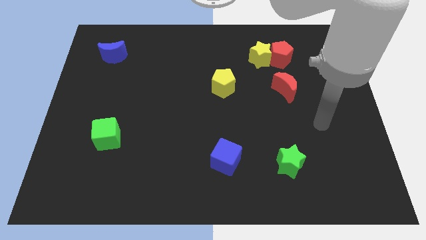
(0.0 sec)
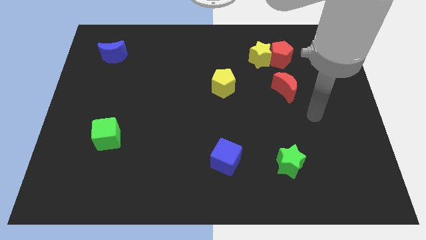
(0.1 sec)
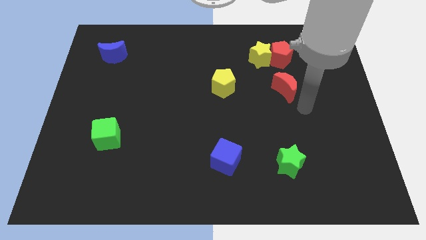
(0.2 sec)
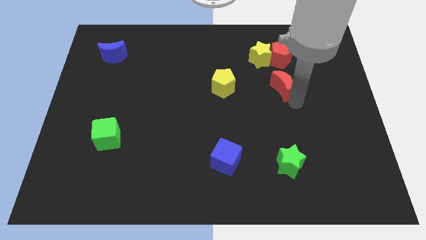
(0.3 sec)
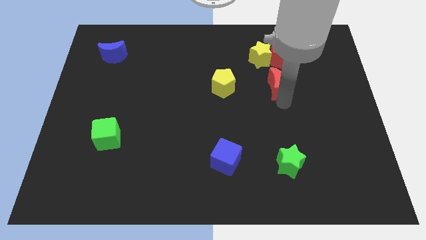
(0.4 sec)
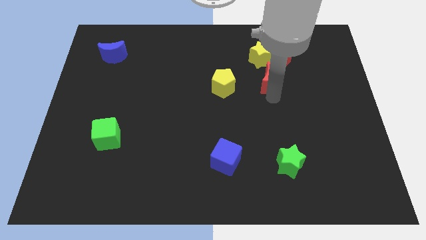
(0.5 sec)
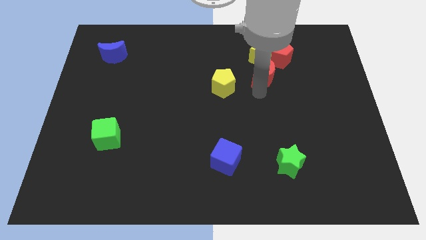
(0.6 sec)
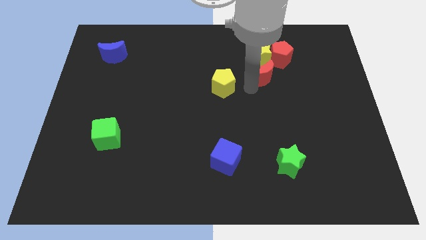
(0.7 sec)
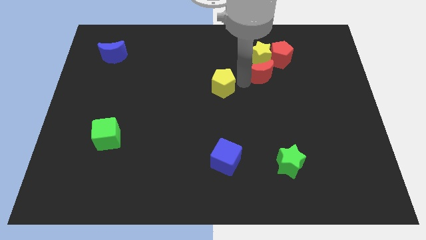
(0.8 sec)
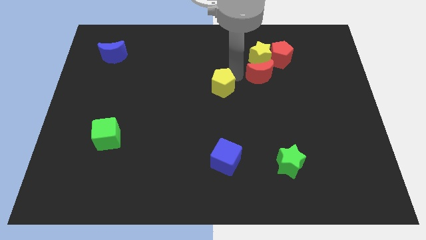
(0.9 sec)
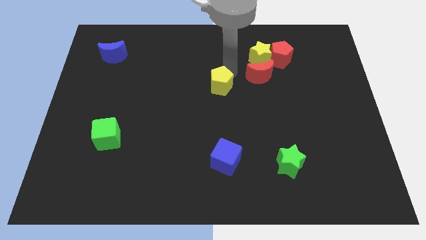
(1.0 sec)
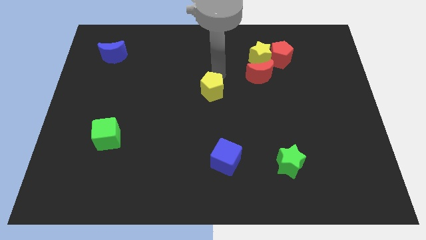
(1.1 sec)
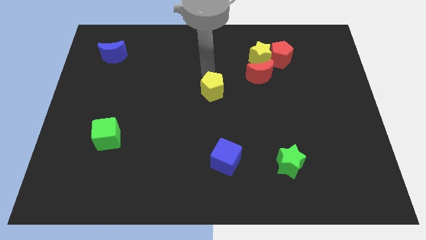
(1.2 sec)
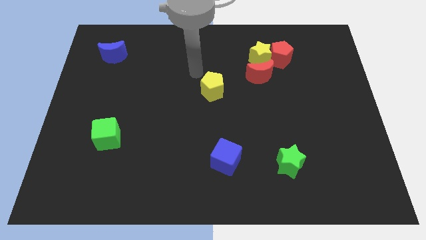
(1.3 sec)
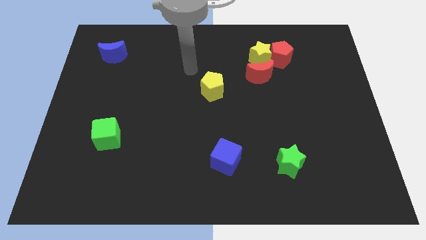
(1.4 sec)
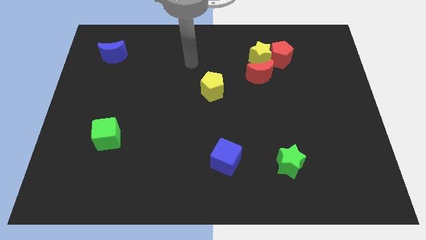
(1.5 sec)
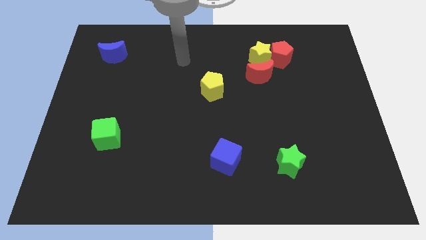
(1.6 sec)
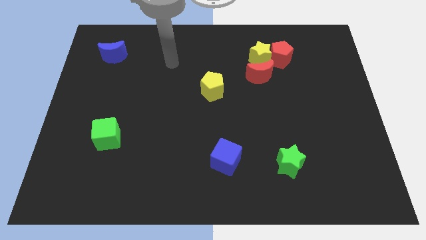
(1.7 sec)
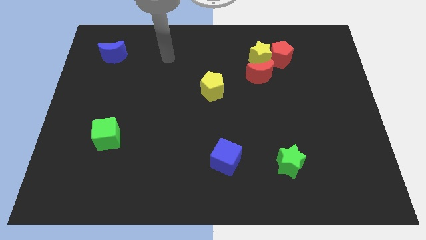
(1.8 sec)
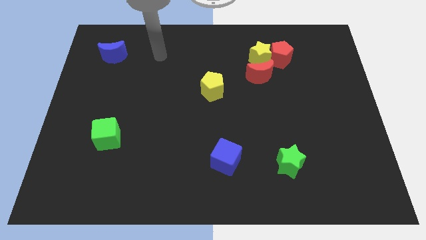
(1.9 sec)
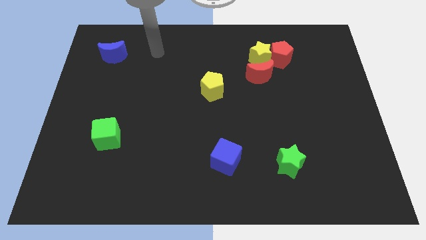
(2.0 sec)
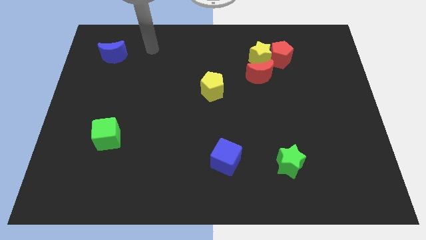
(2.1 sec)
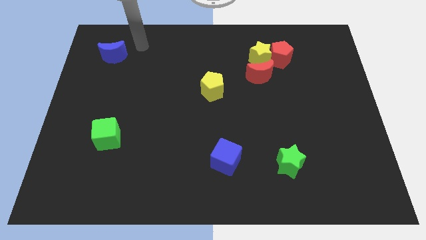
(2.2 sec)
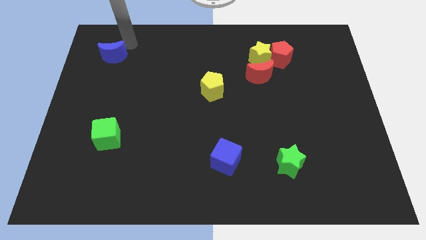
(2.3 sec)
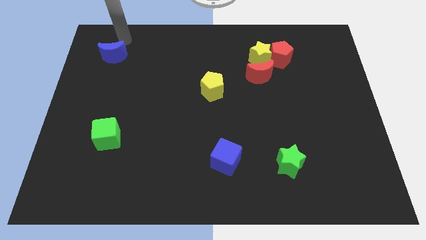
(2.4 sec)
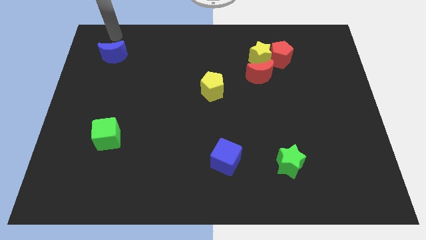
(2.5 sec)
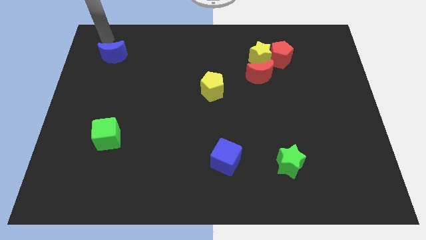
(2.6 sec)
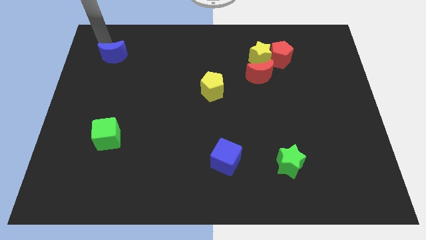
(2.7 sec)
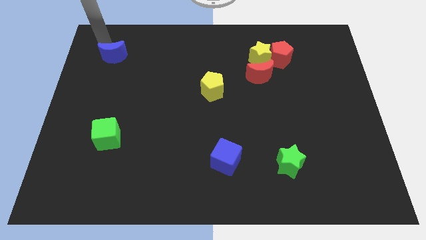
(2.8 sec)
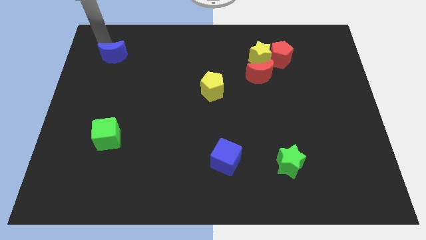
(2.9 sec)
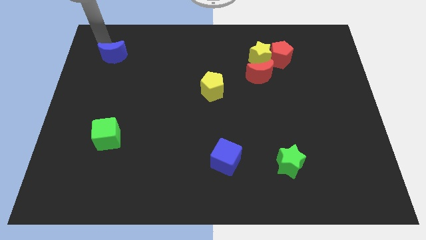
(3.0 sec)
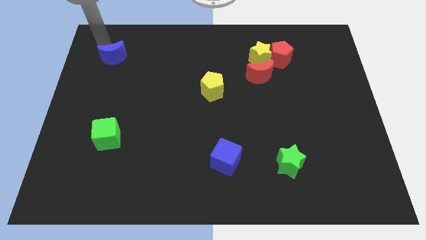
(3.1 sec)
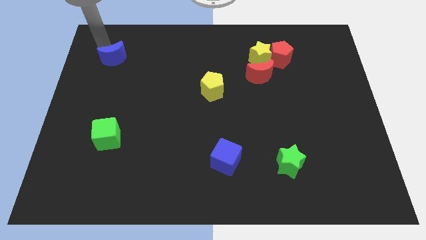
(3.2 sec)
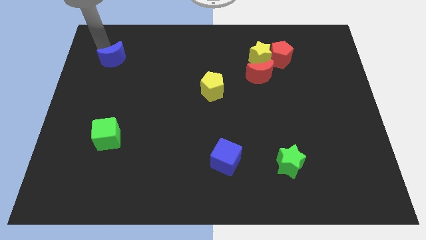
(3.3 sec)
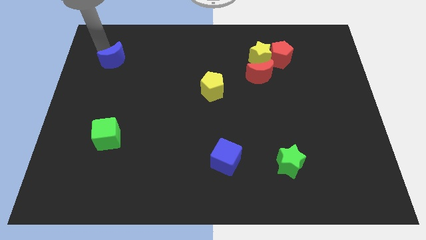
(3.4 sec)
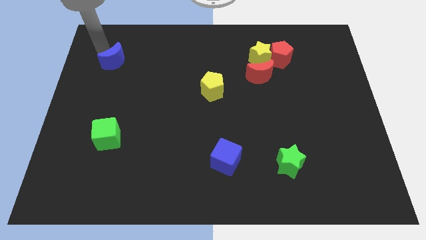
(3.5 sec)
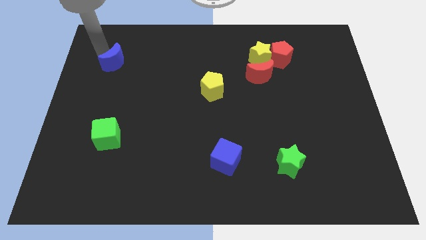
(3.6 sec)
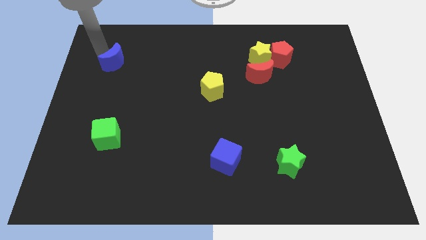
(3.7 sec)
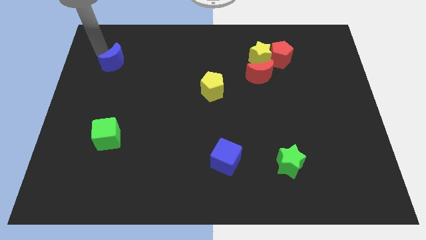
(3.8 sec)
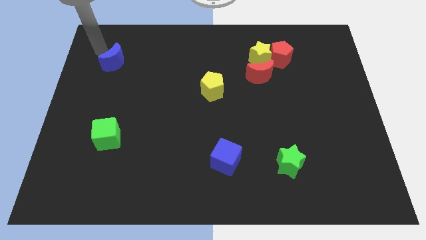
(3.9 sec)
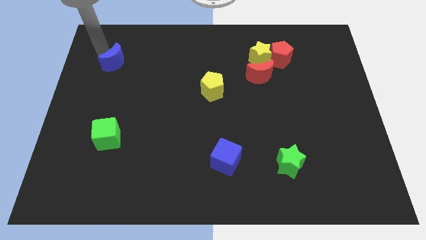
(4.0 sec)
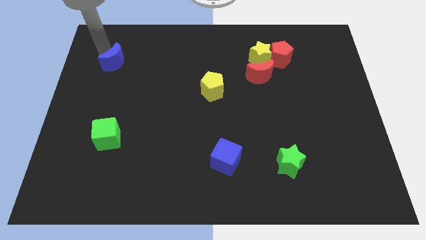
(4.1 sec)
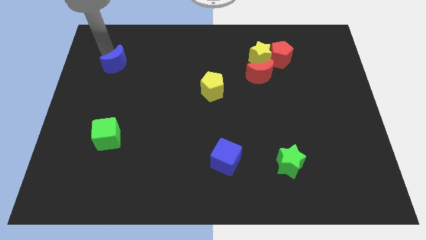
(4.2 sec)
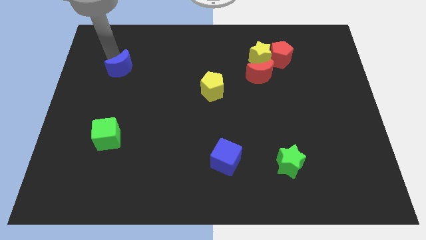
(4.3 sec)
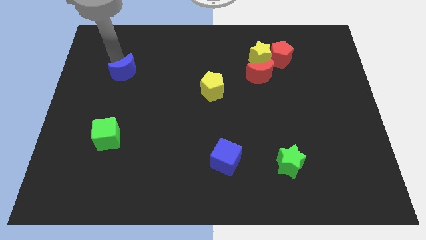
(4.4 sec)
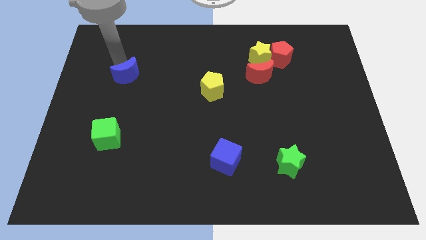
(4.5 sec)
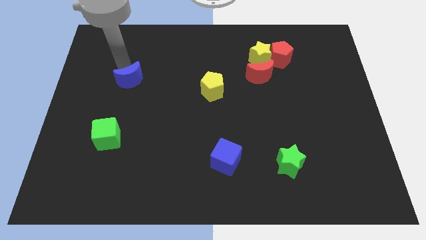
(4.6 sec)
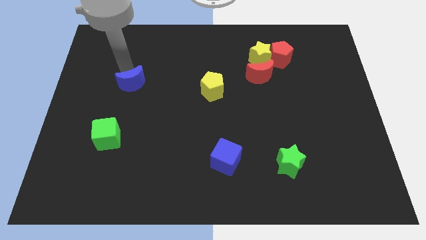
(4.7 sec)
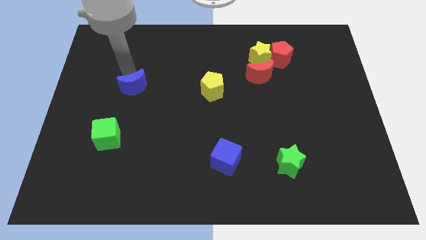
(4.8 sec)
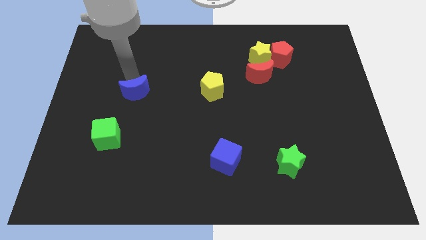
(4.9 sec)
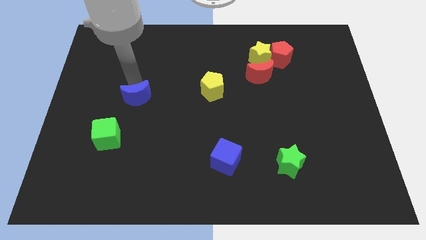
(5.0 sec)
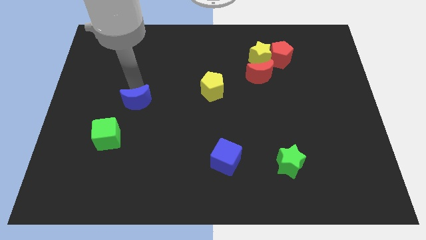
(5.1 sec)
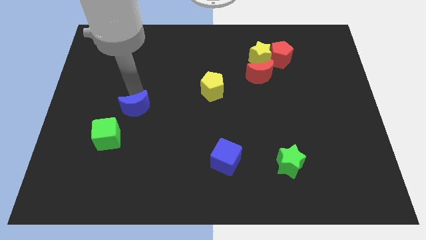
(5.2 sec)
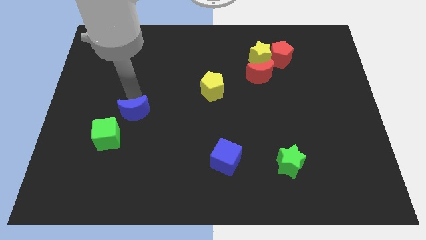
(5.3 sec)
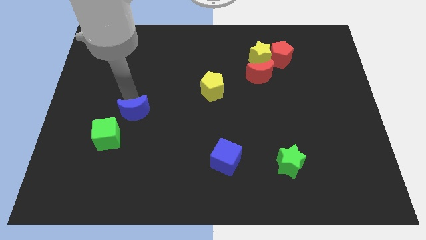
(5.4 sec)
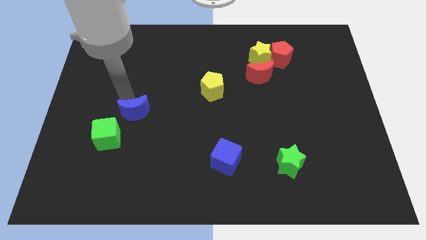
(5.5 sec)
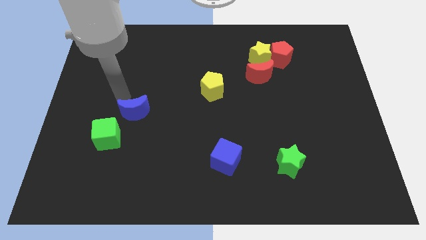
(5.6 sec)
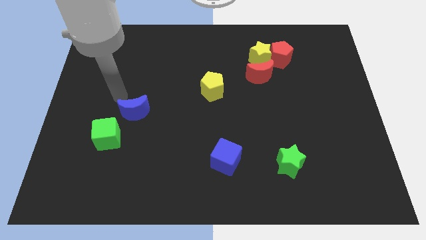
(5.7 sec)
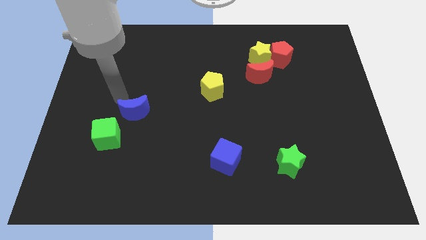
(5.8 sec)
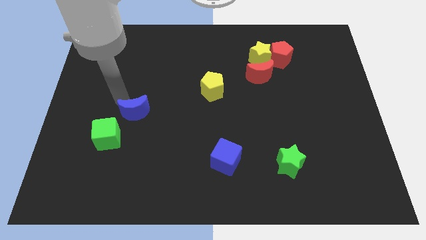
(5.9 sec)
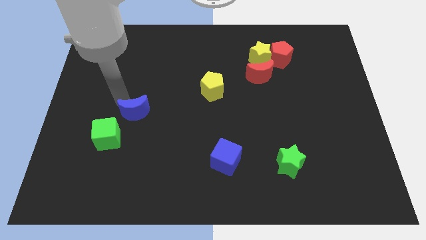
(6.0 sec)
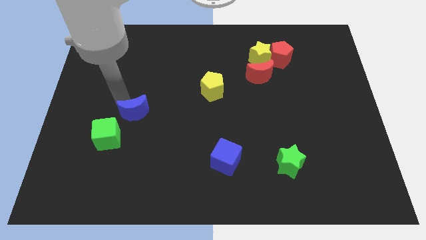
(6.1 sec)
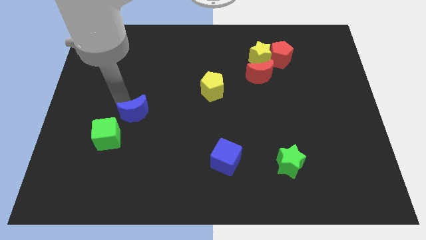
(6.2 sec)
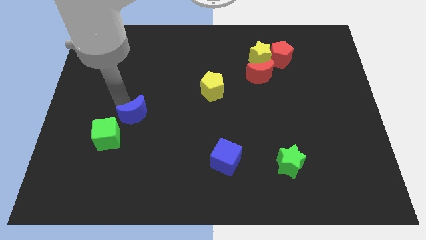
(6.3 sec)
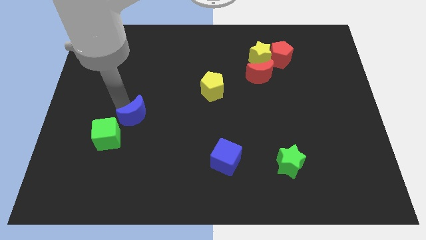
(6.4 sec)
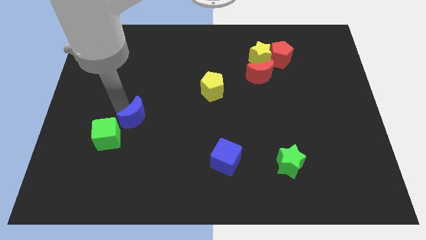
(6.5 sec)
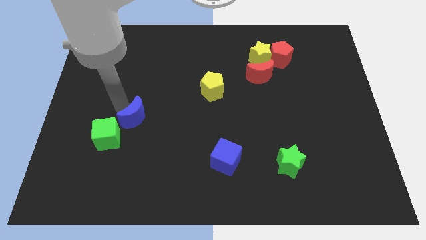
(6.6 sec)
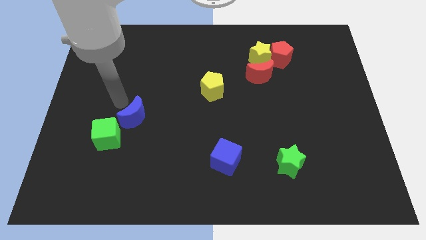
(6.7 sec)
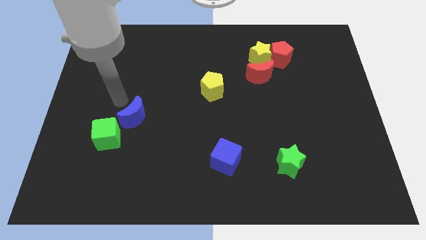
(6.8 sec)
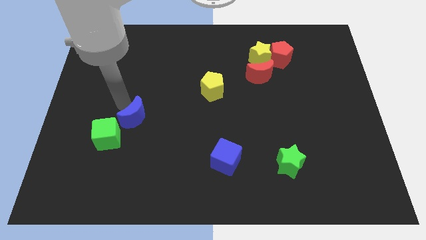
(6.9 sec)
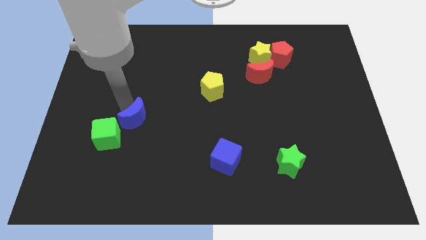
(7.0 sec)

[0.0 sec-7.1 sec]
move the blue moon to the right of the green cube

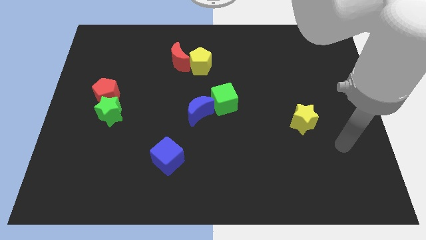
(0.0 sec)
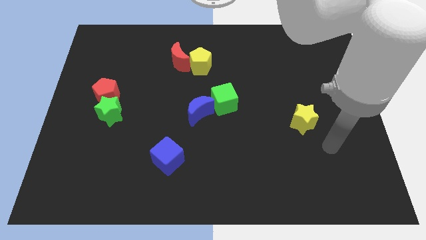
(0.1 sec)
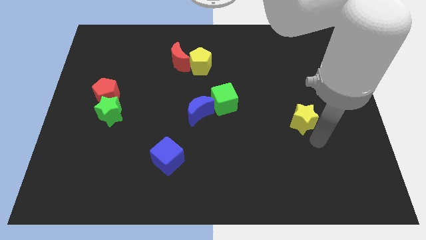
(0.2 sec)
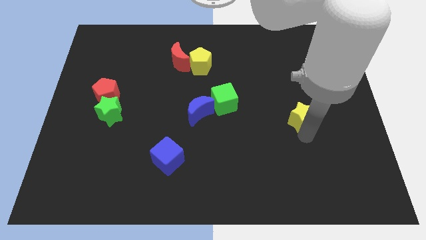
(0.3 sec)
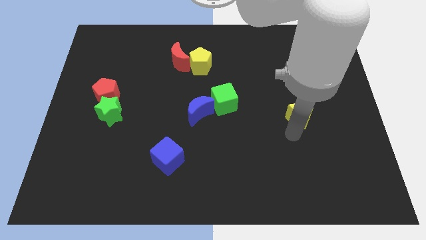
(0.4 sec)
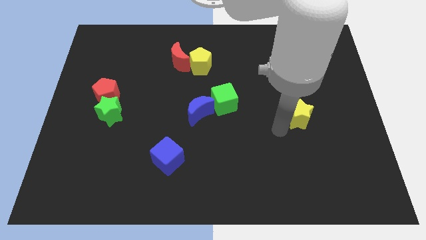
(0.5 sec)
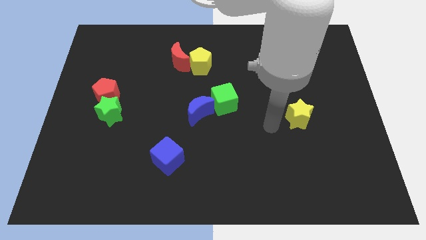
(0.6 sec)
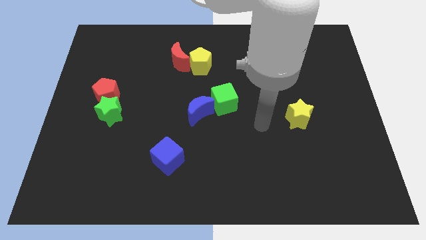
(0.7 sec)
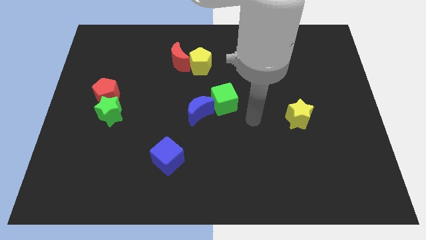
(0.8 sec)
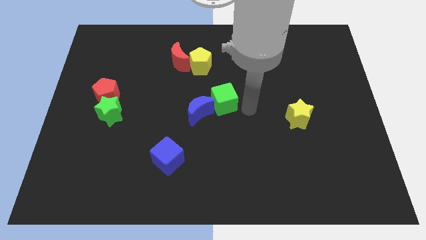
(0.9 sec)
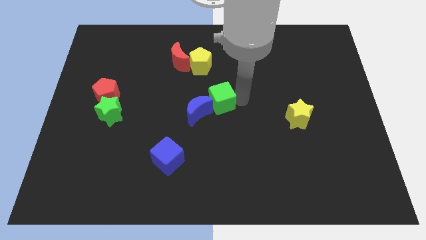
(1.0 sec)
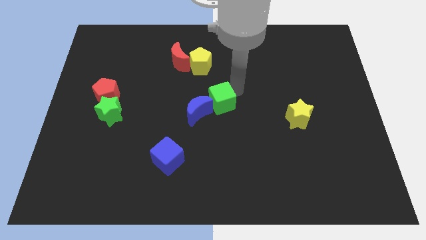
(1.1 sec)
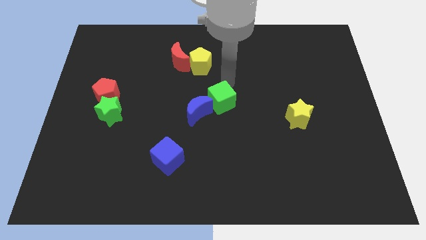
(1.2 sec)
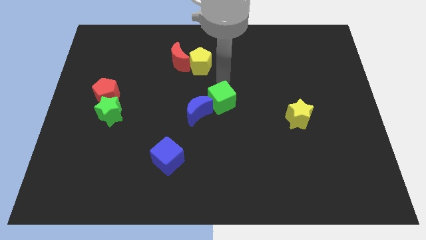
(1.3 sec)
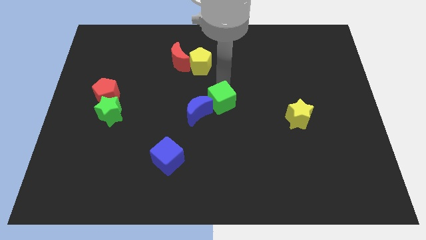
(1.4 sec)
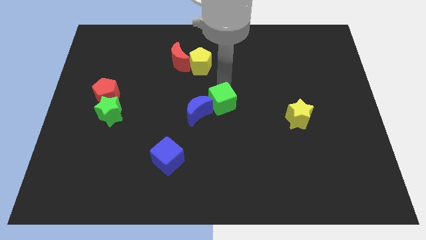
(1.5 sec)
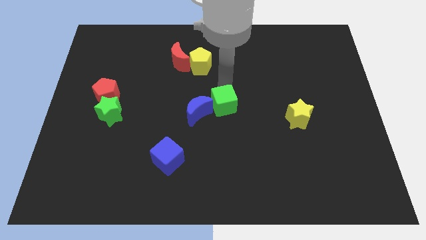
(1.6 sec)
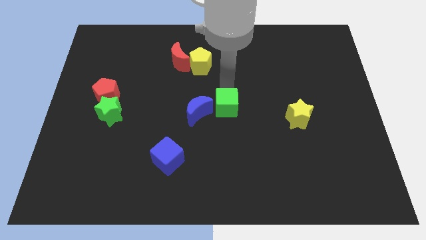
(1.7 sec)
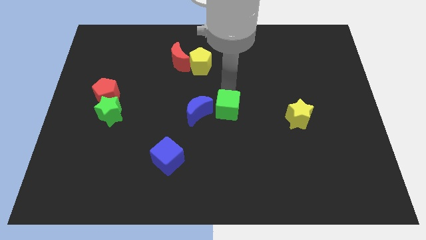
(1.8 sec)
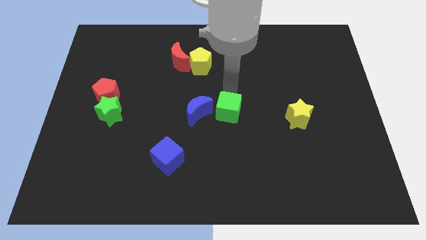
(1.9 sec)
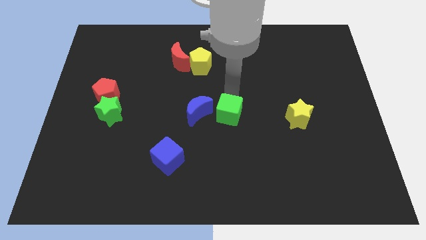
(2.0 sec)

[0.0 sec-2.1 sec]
push the green cube to the bottom right of the blue moon
